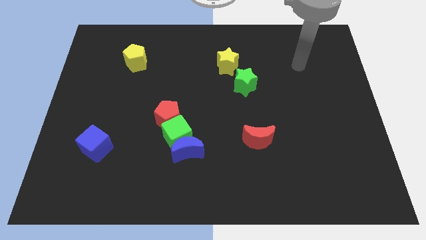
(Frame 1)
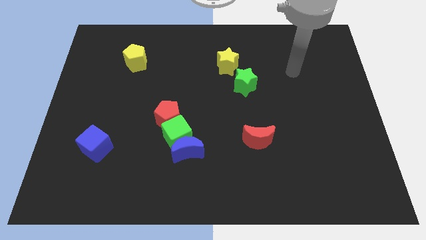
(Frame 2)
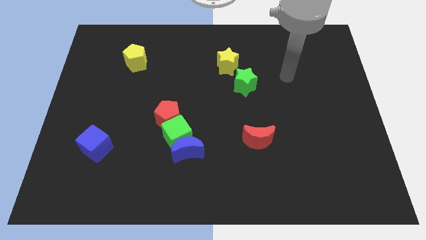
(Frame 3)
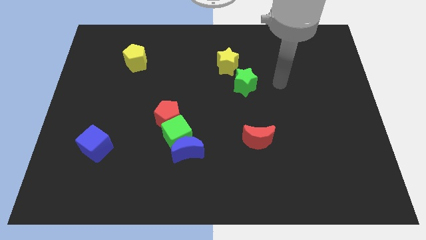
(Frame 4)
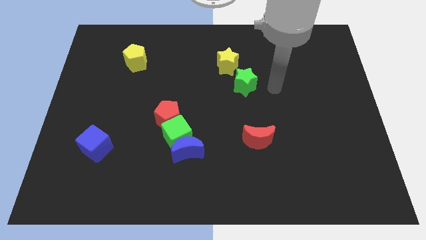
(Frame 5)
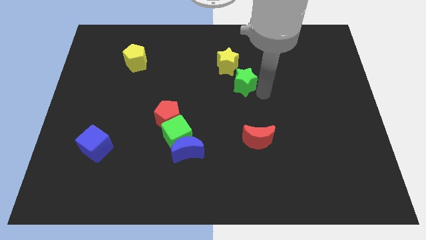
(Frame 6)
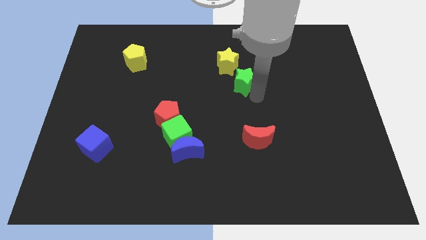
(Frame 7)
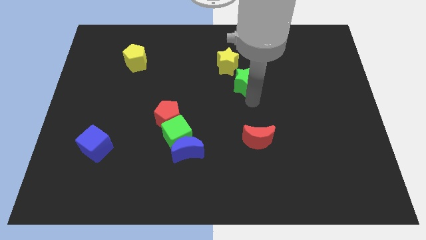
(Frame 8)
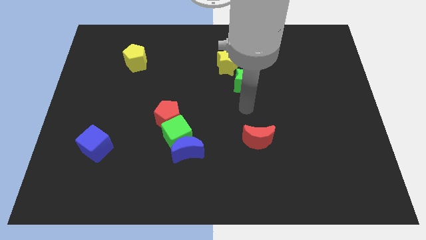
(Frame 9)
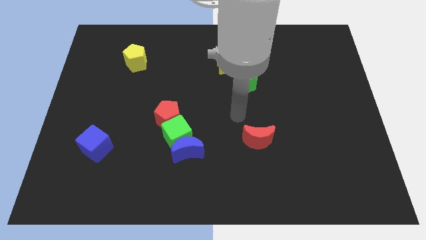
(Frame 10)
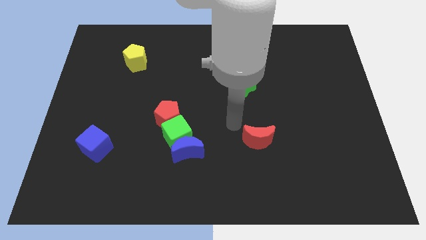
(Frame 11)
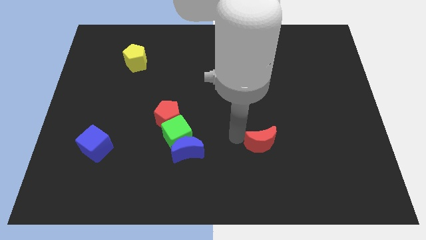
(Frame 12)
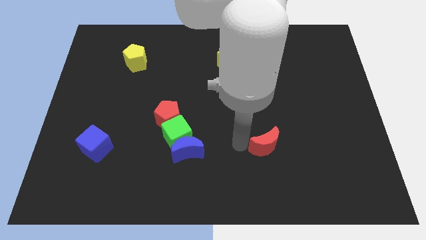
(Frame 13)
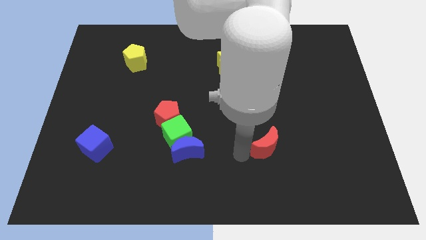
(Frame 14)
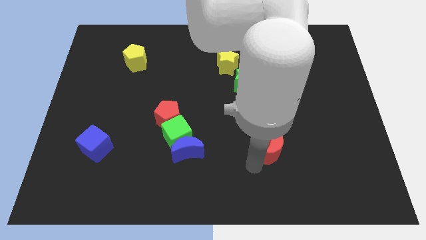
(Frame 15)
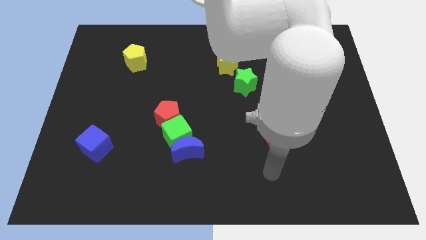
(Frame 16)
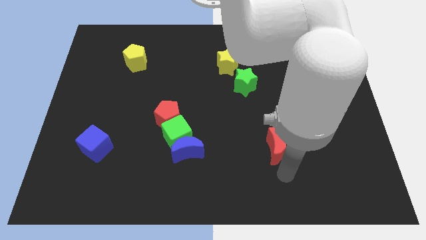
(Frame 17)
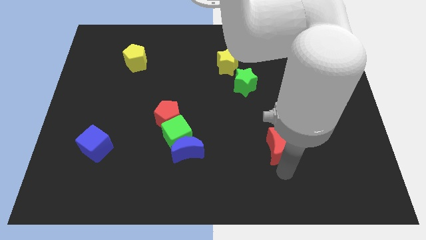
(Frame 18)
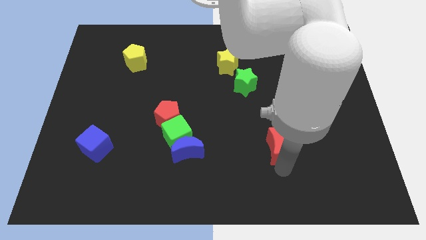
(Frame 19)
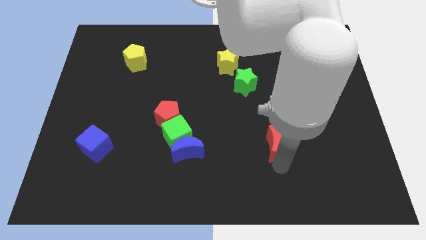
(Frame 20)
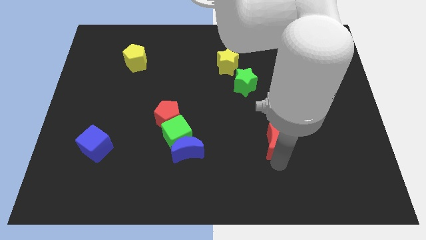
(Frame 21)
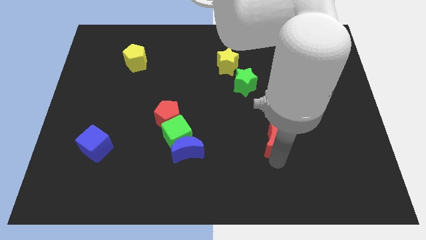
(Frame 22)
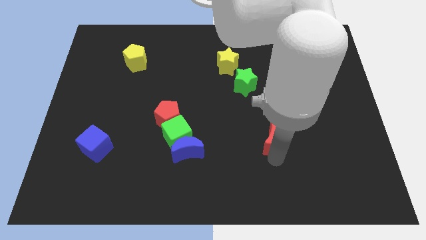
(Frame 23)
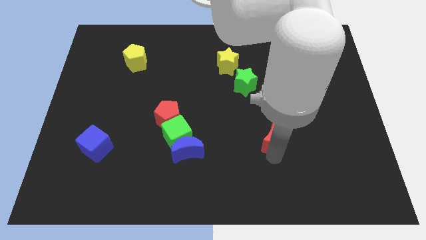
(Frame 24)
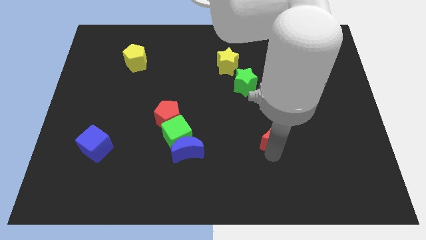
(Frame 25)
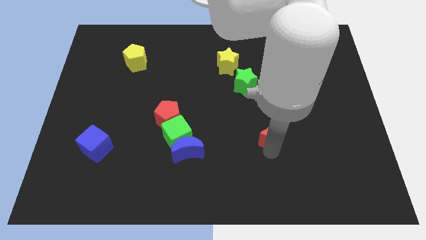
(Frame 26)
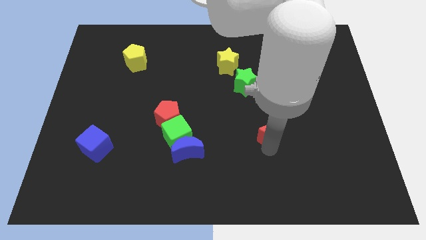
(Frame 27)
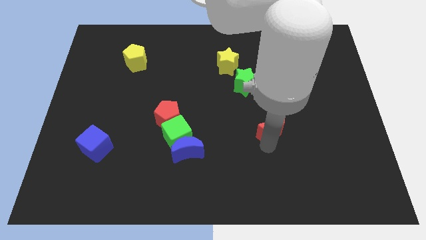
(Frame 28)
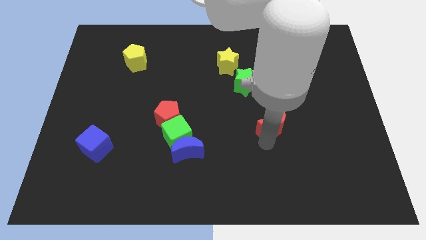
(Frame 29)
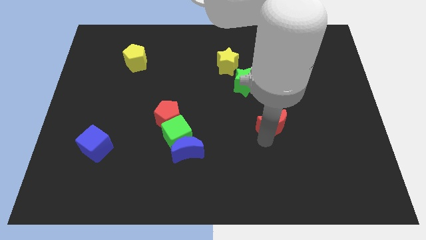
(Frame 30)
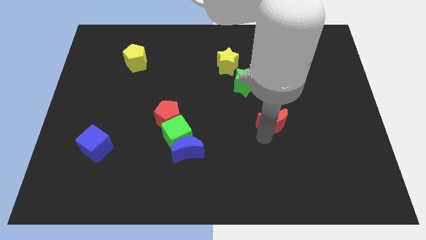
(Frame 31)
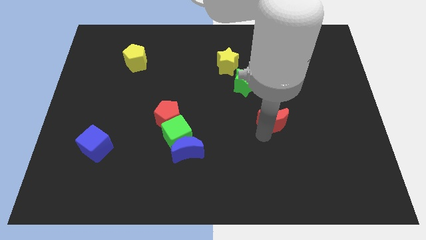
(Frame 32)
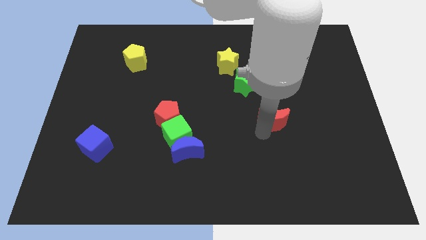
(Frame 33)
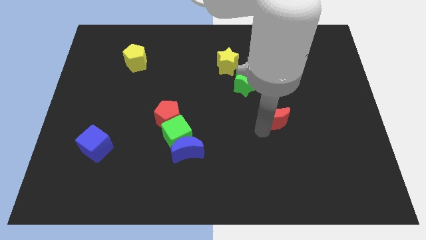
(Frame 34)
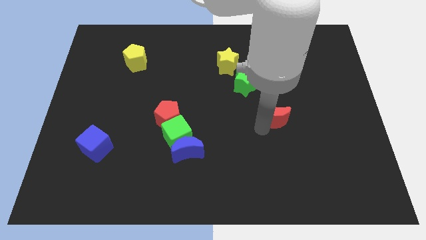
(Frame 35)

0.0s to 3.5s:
push the red moon slightly up and to the right diagonally

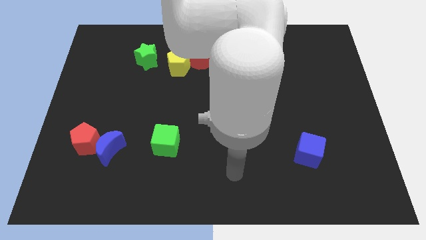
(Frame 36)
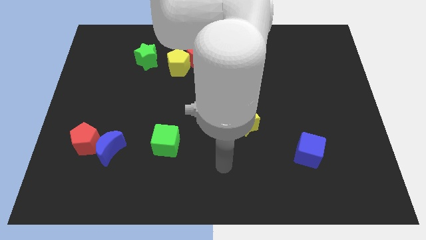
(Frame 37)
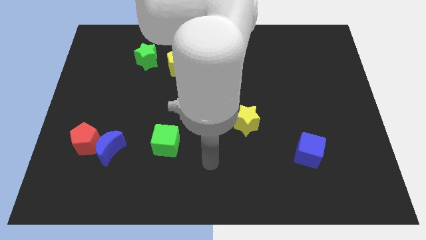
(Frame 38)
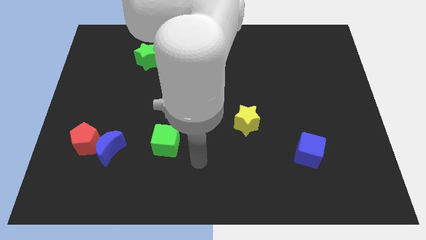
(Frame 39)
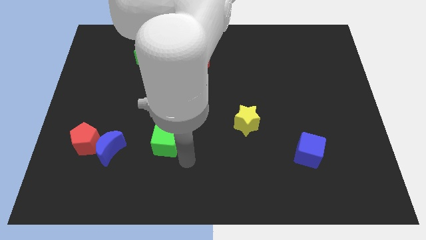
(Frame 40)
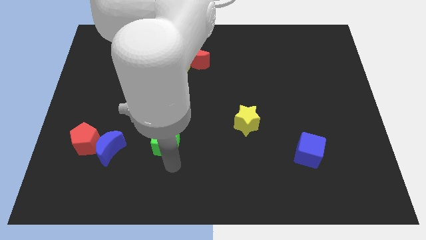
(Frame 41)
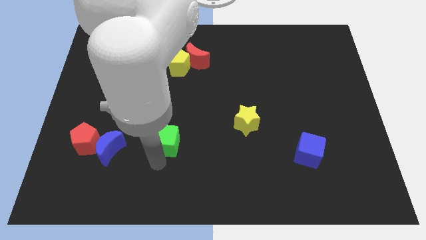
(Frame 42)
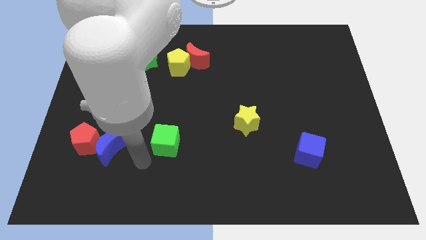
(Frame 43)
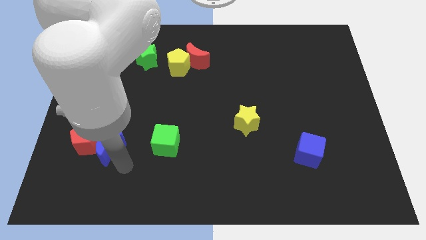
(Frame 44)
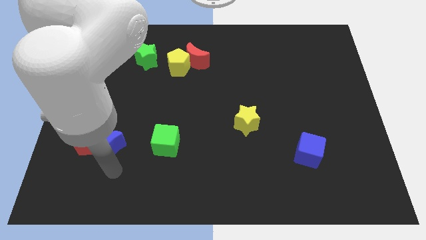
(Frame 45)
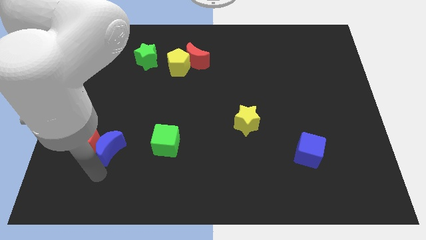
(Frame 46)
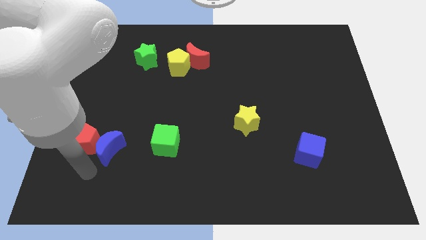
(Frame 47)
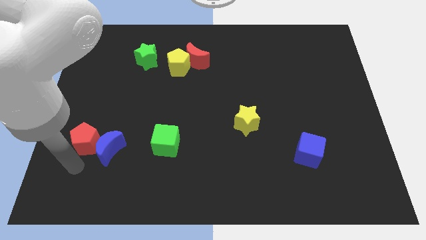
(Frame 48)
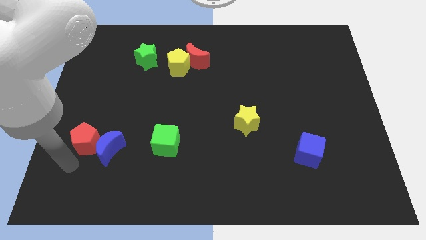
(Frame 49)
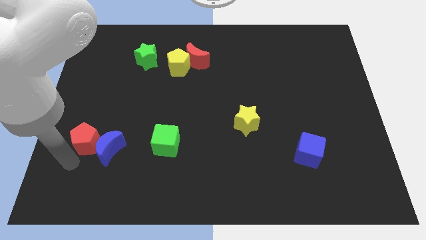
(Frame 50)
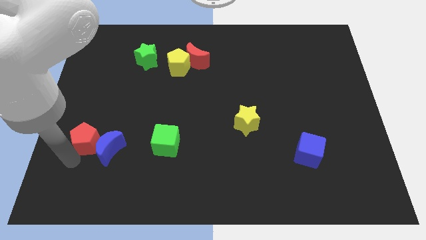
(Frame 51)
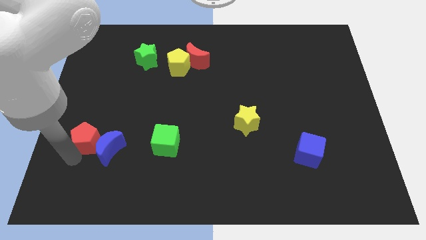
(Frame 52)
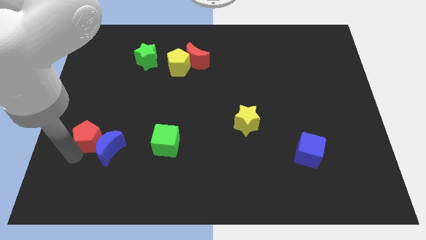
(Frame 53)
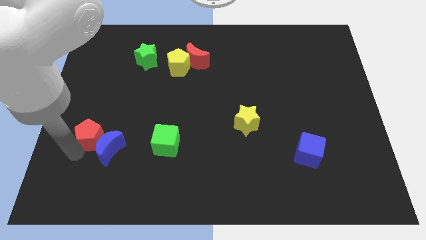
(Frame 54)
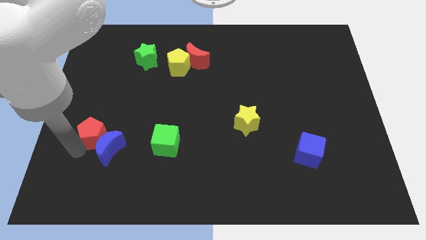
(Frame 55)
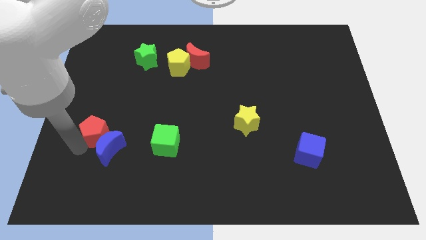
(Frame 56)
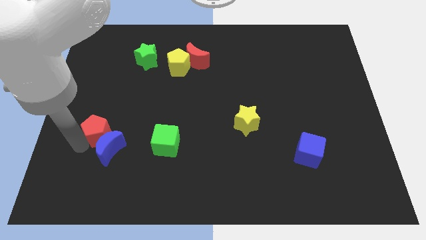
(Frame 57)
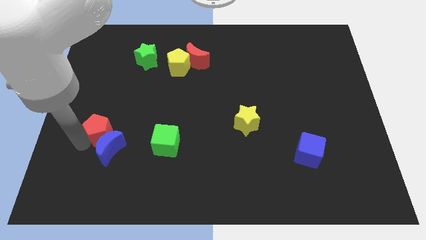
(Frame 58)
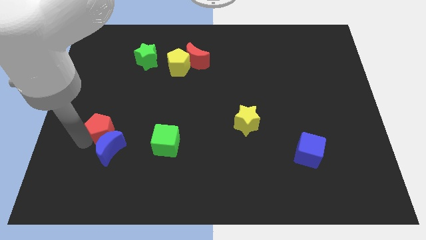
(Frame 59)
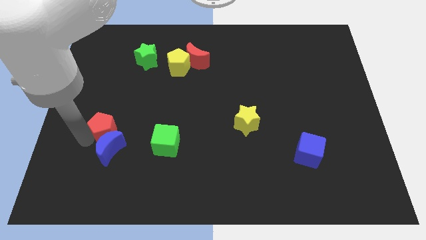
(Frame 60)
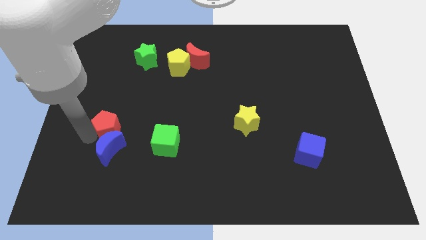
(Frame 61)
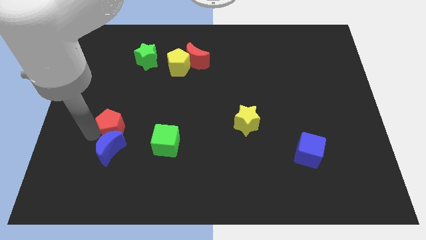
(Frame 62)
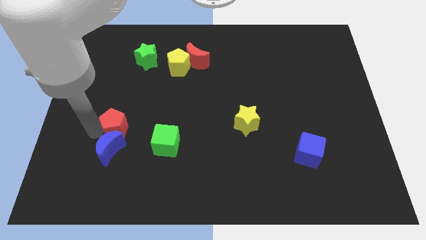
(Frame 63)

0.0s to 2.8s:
push the red pentagon somewhat up and right diagonally

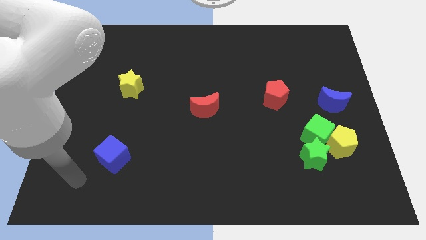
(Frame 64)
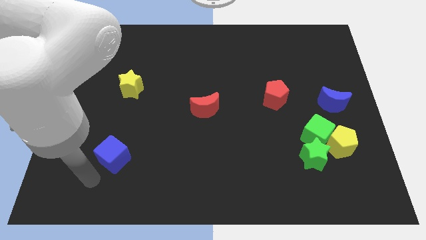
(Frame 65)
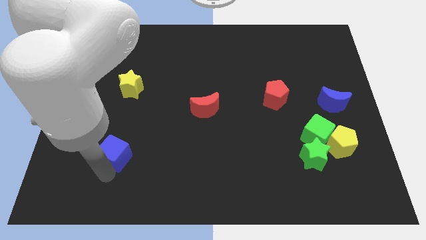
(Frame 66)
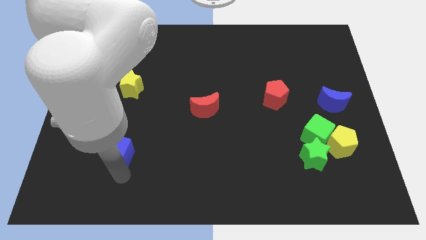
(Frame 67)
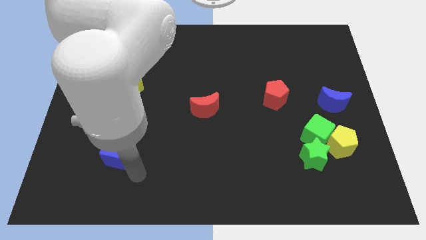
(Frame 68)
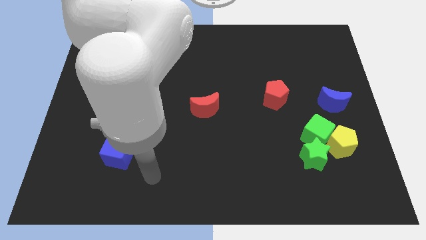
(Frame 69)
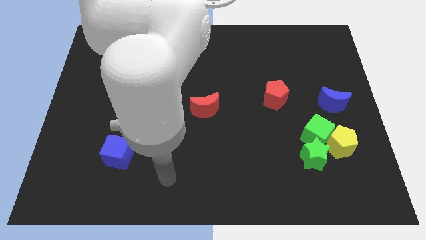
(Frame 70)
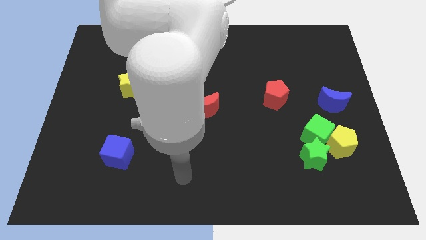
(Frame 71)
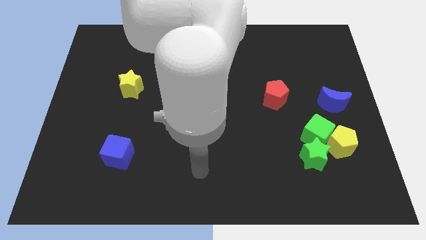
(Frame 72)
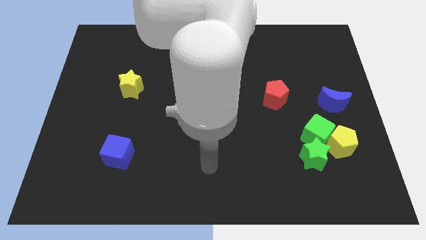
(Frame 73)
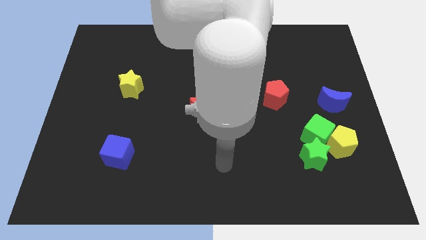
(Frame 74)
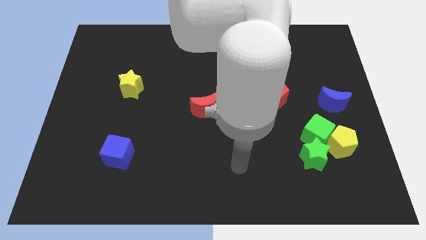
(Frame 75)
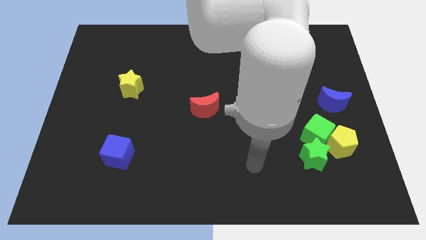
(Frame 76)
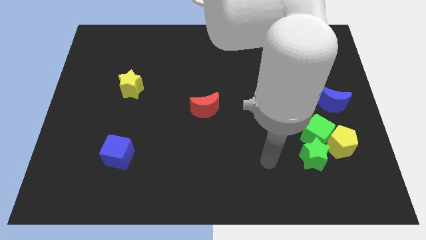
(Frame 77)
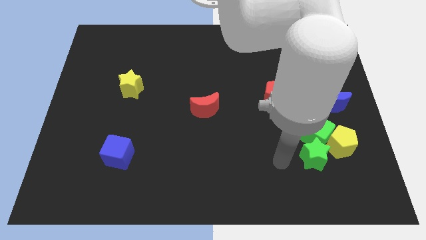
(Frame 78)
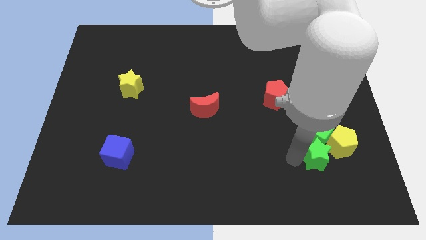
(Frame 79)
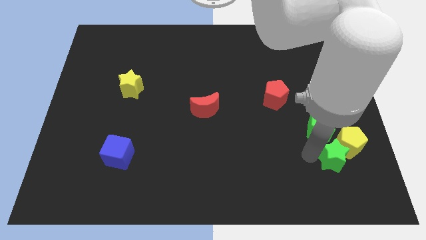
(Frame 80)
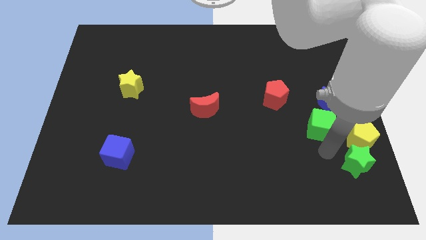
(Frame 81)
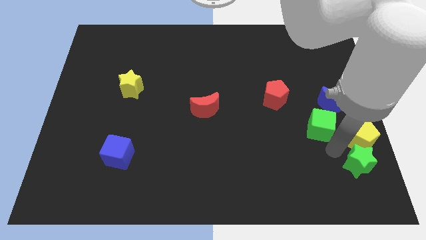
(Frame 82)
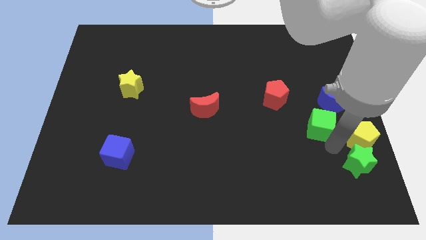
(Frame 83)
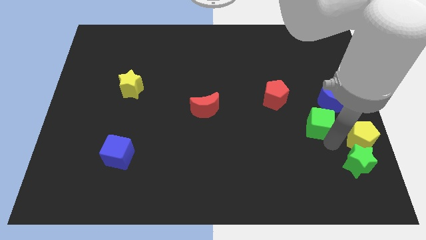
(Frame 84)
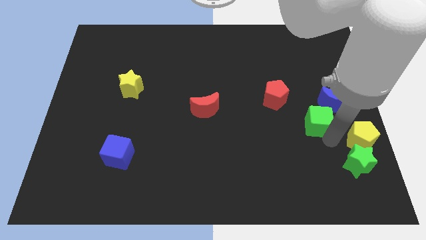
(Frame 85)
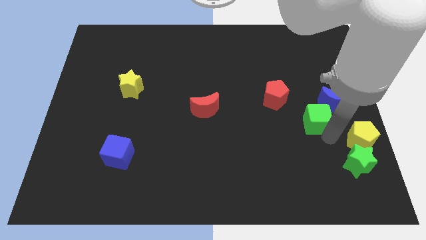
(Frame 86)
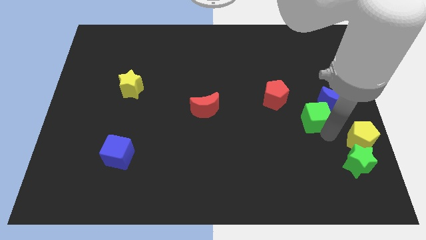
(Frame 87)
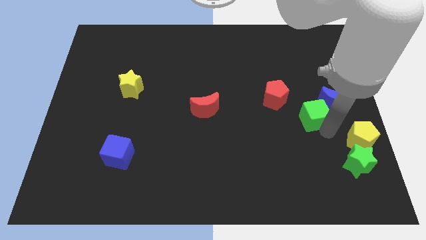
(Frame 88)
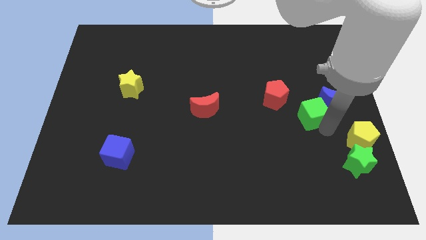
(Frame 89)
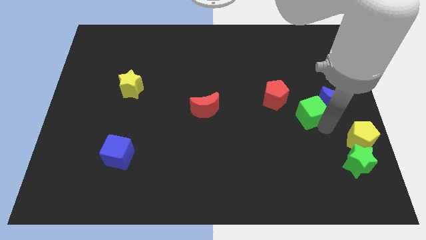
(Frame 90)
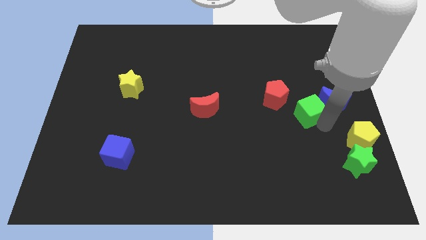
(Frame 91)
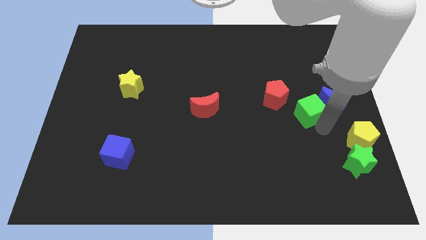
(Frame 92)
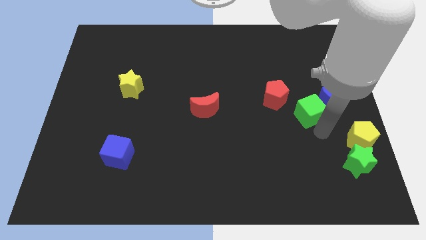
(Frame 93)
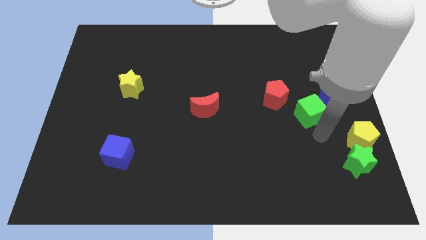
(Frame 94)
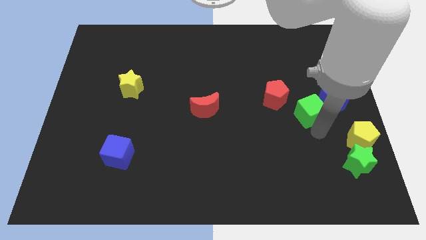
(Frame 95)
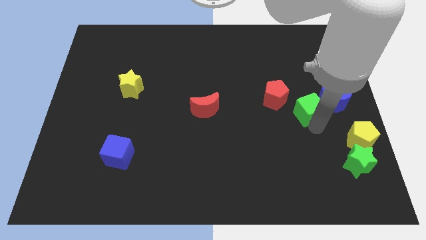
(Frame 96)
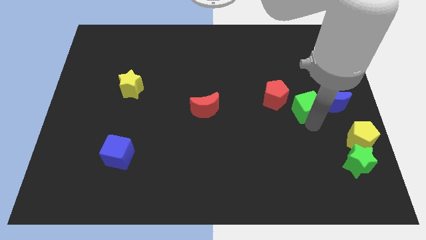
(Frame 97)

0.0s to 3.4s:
push the green cube a bit upwards
